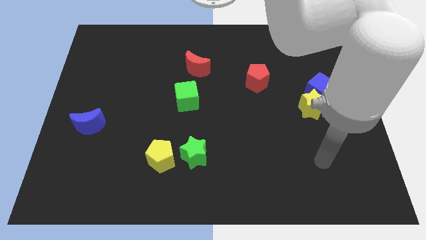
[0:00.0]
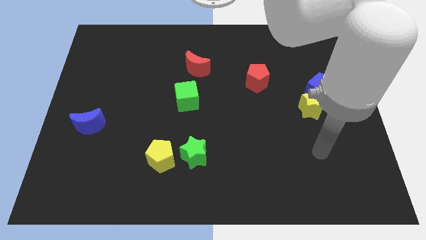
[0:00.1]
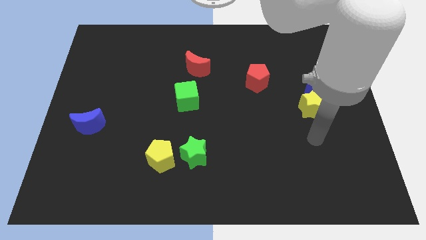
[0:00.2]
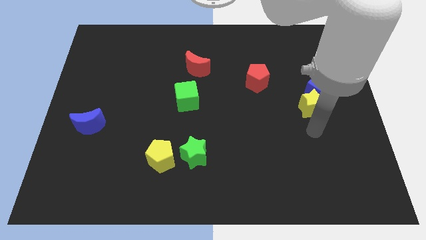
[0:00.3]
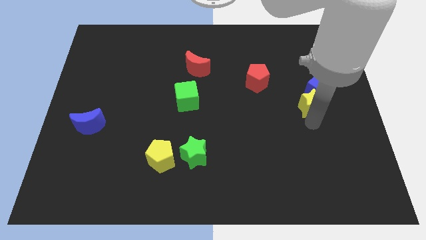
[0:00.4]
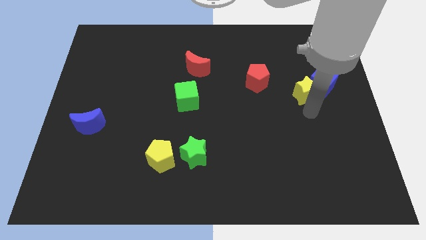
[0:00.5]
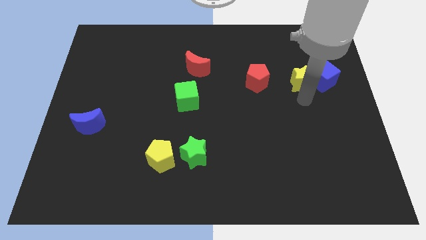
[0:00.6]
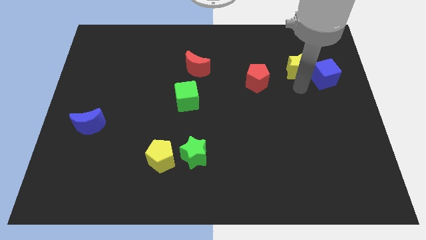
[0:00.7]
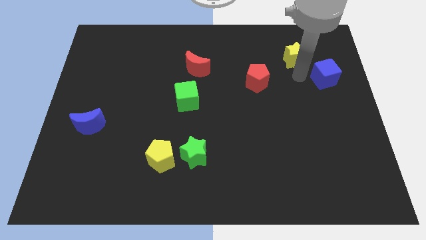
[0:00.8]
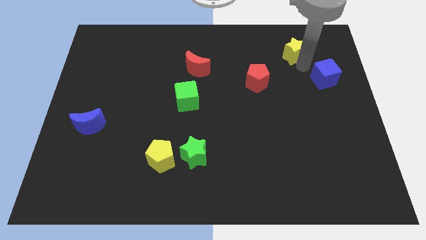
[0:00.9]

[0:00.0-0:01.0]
move the blue cube away from the yellow star

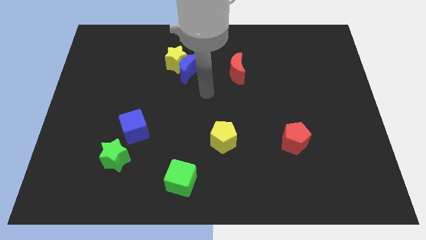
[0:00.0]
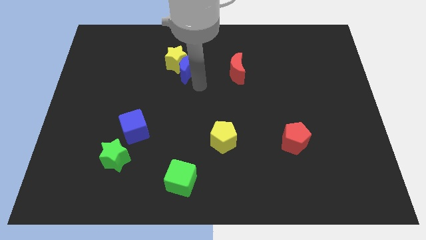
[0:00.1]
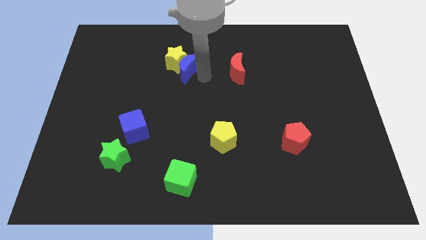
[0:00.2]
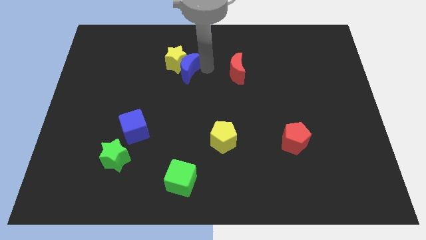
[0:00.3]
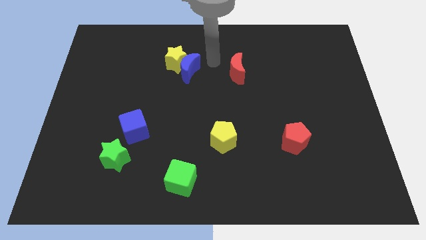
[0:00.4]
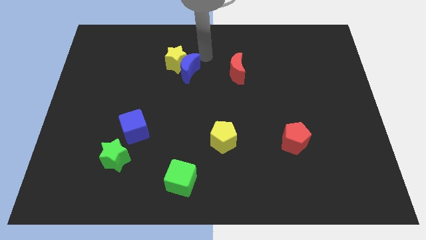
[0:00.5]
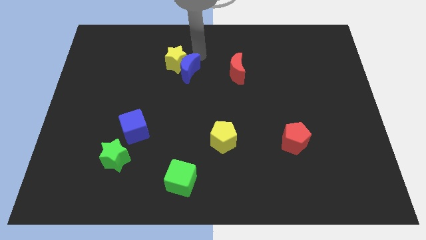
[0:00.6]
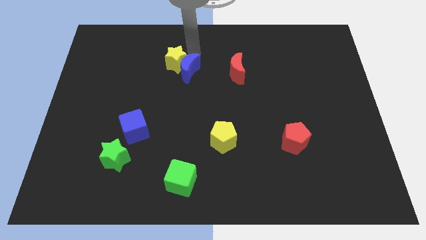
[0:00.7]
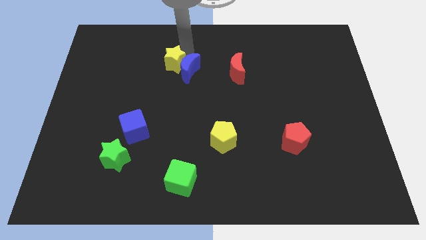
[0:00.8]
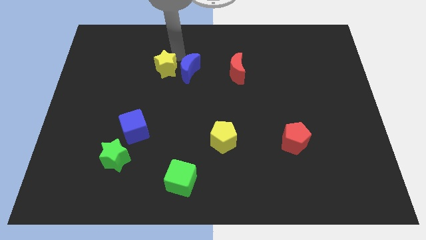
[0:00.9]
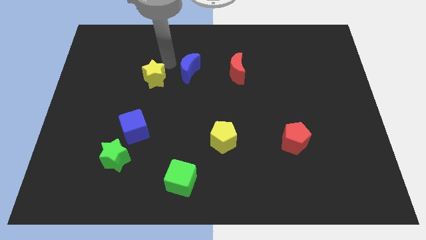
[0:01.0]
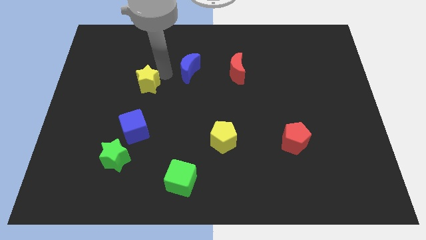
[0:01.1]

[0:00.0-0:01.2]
move the blue moon away from the yellow star

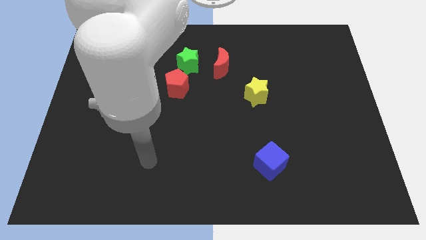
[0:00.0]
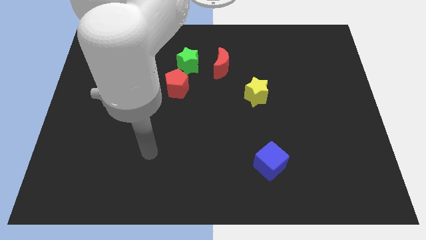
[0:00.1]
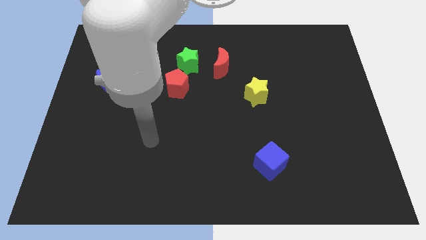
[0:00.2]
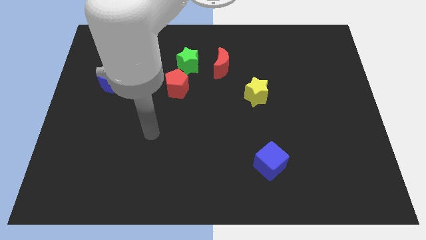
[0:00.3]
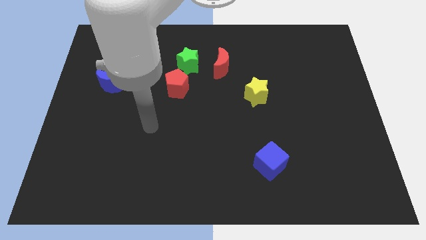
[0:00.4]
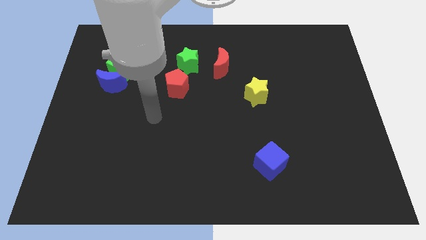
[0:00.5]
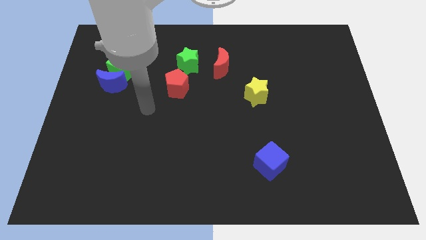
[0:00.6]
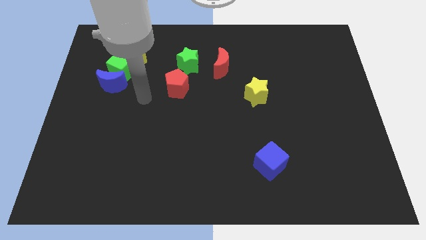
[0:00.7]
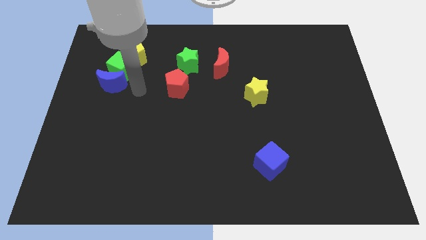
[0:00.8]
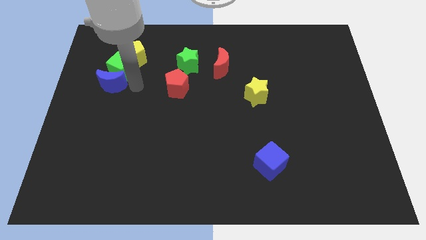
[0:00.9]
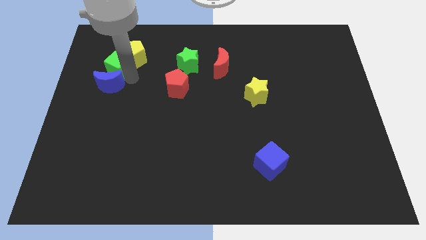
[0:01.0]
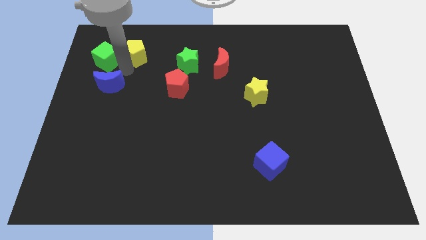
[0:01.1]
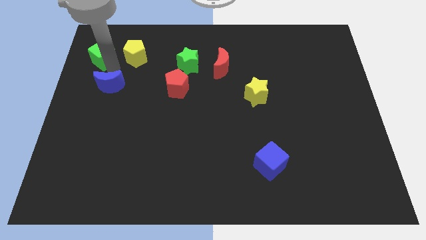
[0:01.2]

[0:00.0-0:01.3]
pull the blue moon apart from the green cube

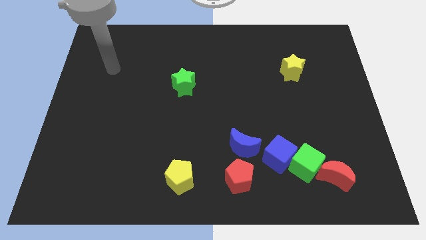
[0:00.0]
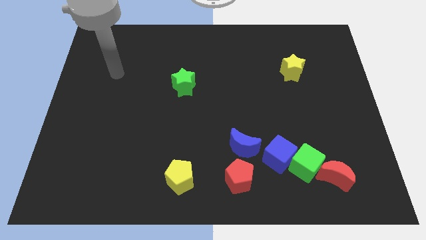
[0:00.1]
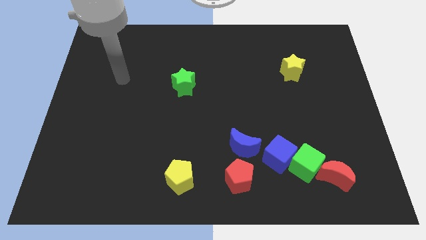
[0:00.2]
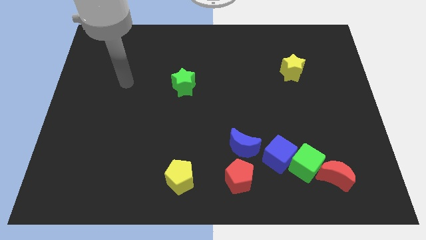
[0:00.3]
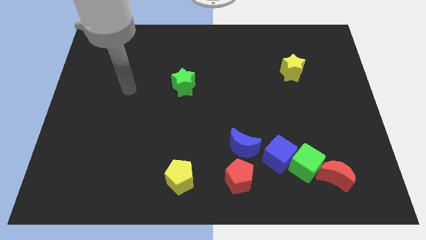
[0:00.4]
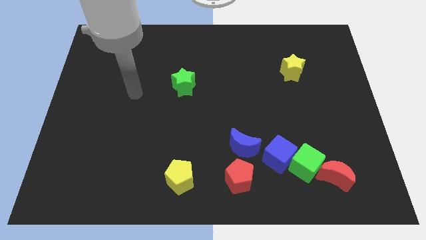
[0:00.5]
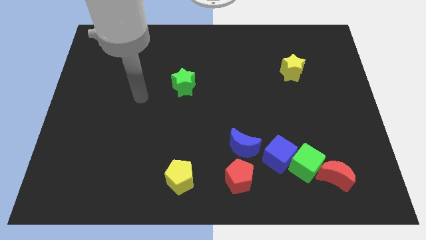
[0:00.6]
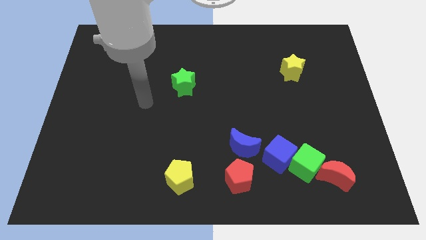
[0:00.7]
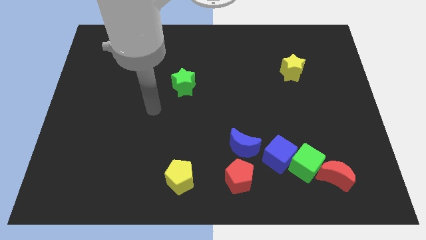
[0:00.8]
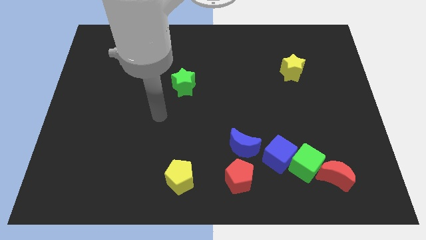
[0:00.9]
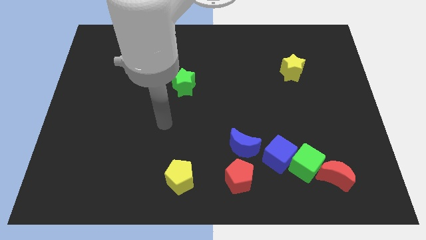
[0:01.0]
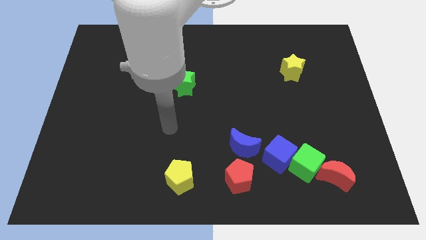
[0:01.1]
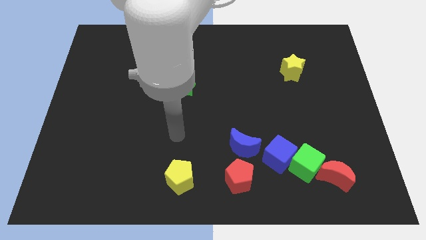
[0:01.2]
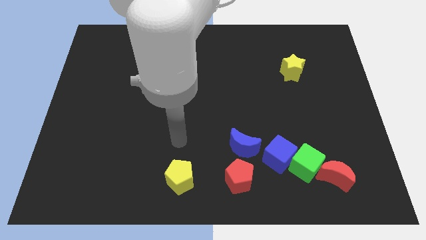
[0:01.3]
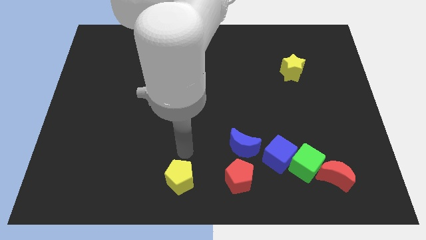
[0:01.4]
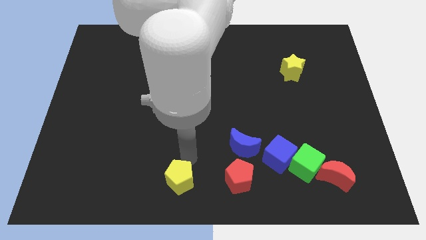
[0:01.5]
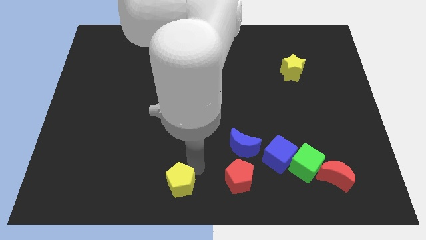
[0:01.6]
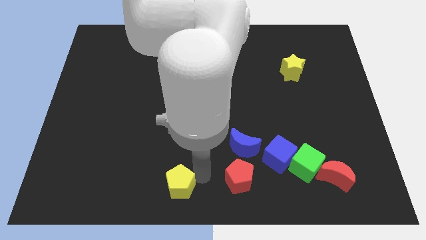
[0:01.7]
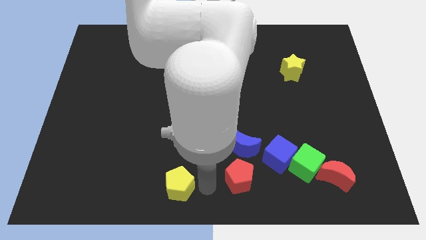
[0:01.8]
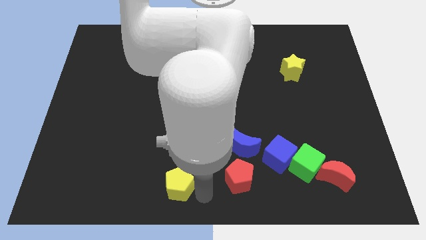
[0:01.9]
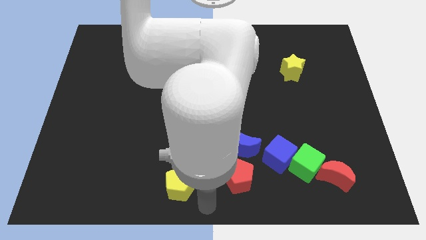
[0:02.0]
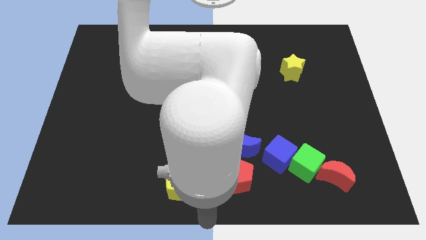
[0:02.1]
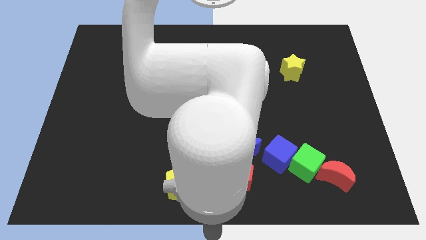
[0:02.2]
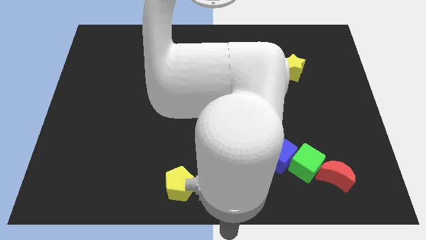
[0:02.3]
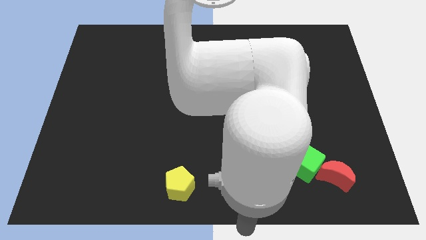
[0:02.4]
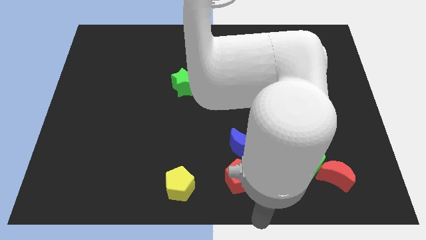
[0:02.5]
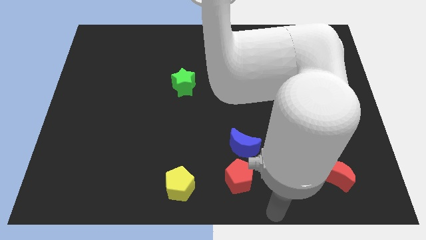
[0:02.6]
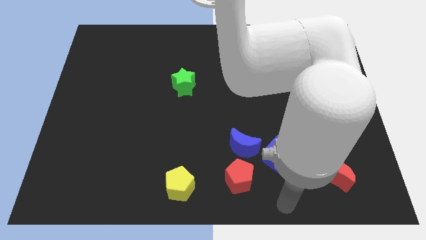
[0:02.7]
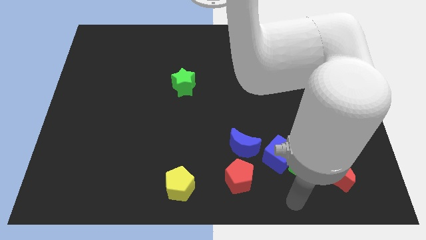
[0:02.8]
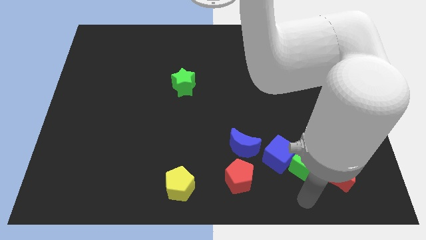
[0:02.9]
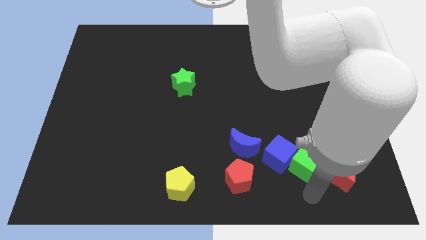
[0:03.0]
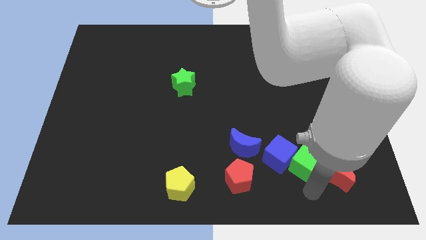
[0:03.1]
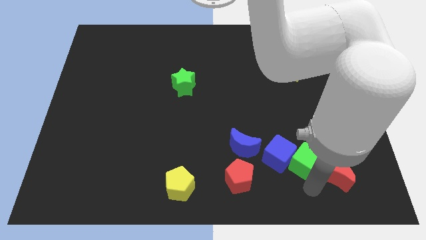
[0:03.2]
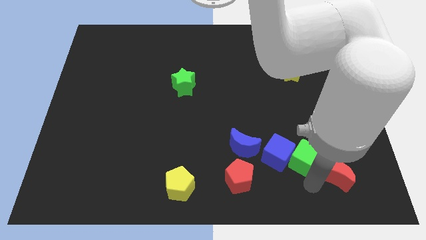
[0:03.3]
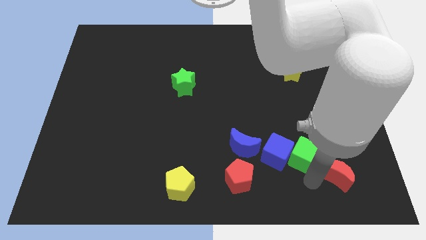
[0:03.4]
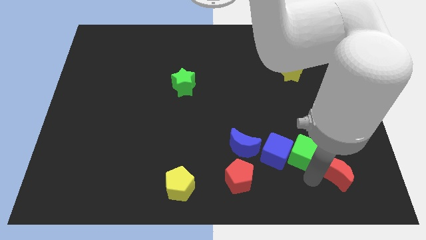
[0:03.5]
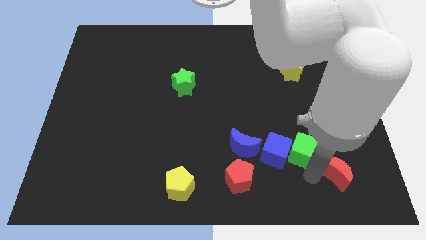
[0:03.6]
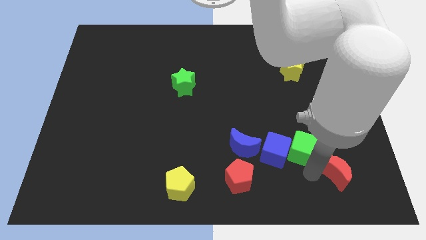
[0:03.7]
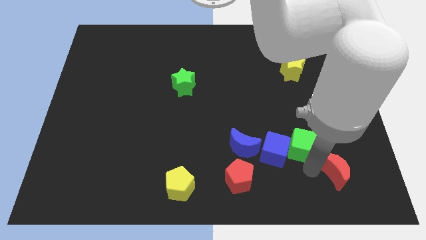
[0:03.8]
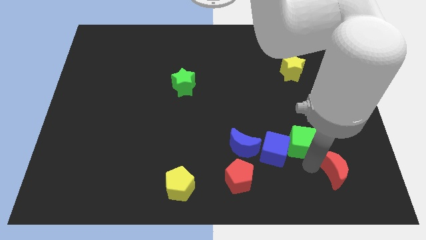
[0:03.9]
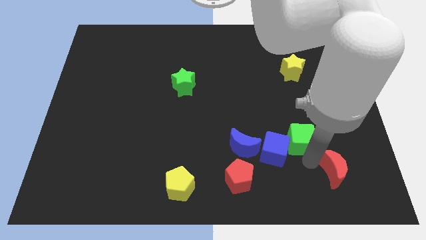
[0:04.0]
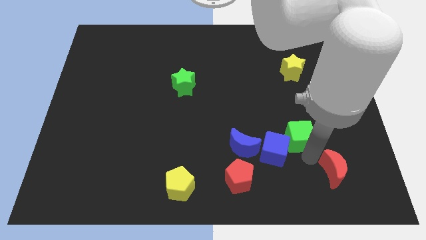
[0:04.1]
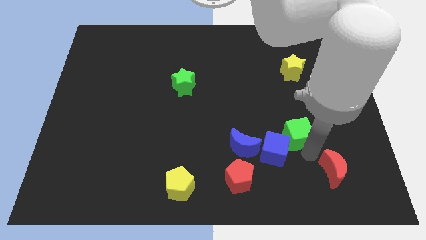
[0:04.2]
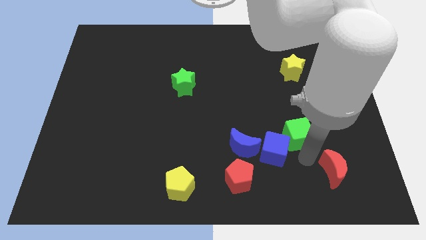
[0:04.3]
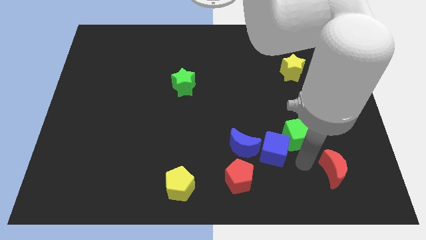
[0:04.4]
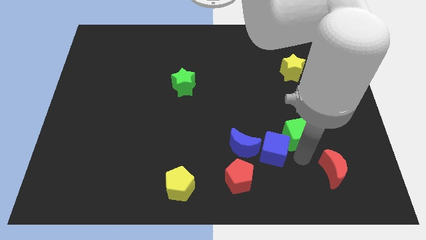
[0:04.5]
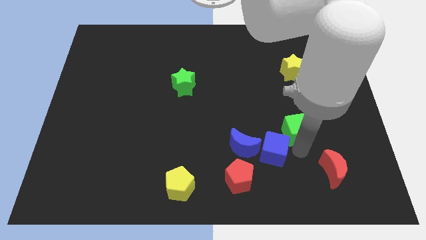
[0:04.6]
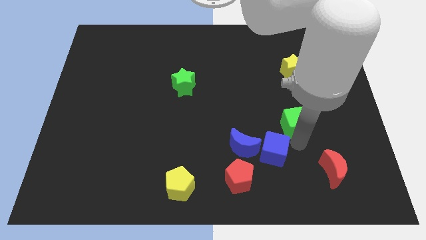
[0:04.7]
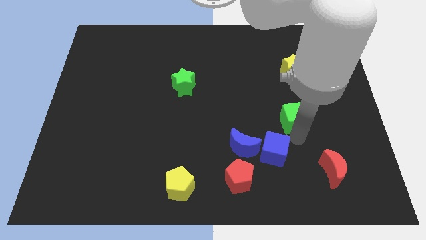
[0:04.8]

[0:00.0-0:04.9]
separate the green cube from the blue cube and red moon

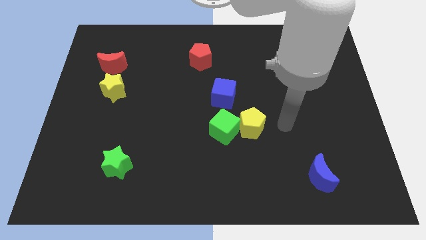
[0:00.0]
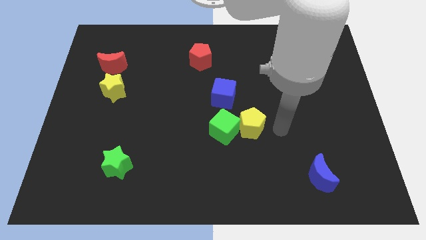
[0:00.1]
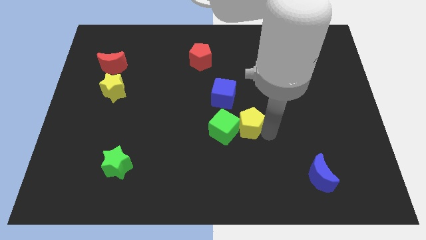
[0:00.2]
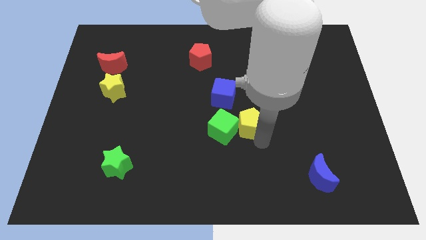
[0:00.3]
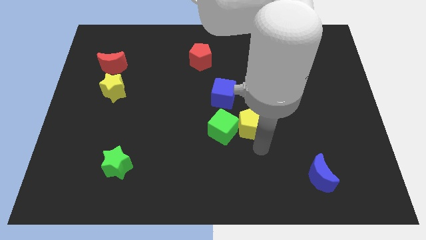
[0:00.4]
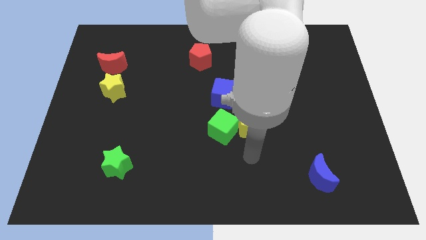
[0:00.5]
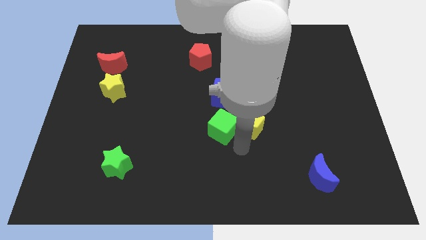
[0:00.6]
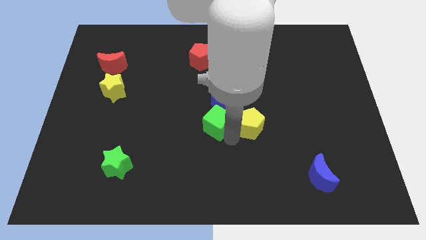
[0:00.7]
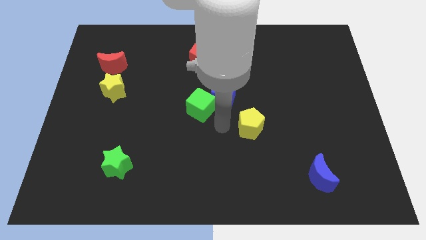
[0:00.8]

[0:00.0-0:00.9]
move the yellow pentagon away from the green cube

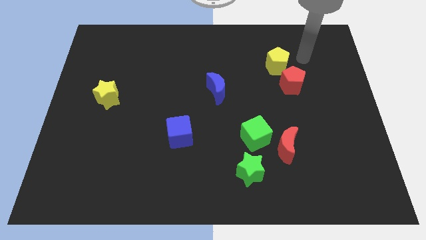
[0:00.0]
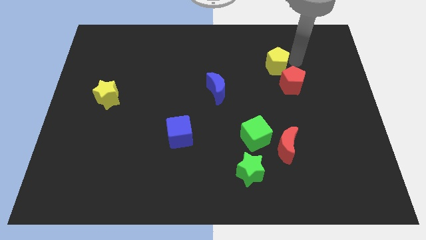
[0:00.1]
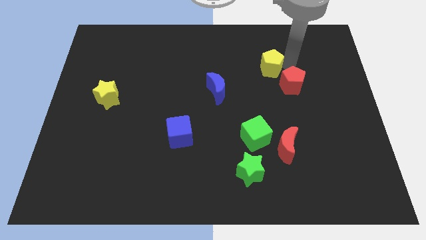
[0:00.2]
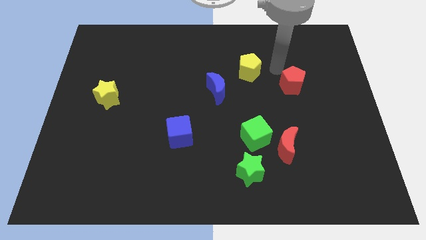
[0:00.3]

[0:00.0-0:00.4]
move the red pentagon away from the yellow pentagon
